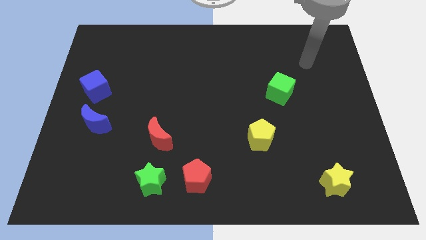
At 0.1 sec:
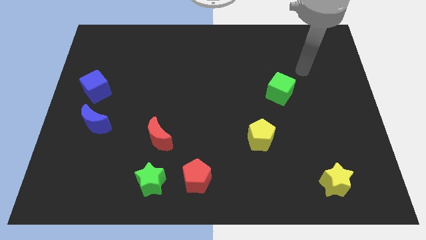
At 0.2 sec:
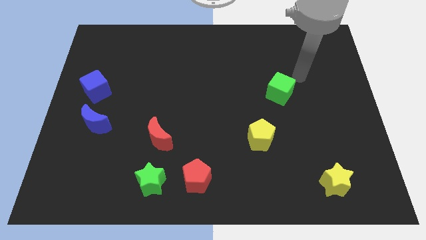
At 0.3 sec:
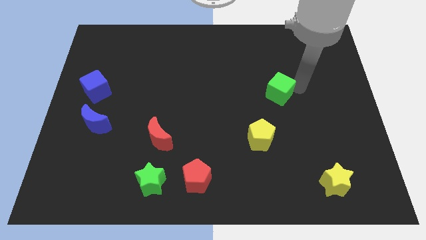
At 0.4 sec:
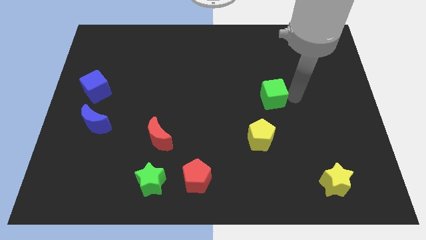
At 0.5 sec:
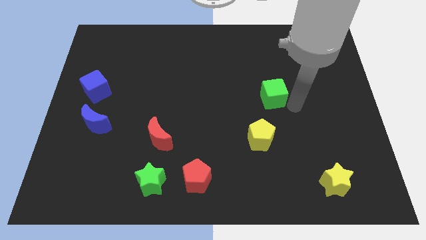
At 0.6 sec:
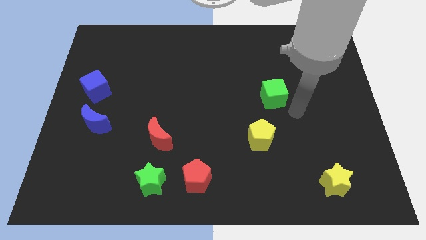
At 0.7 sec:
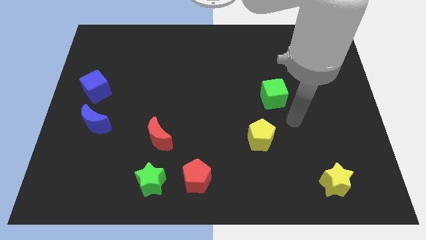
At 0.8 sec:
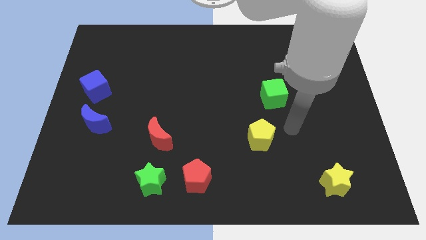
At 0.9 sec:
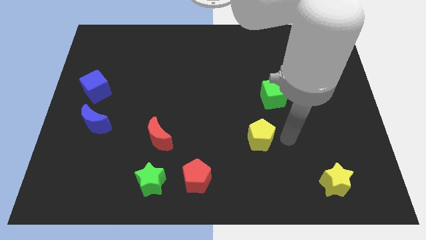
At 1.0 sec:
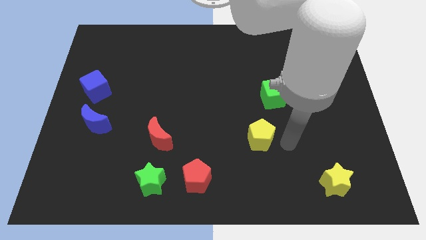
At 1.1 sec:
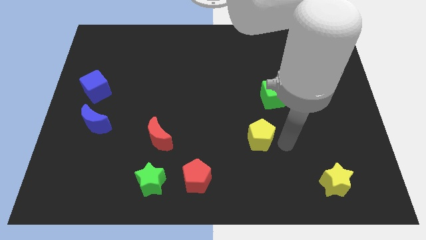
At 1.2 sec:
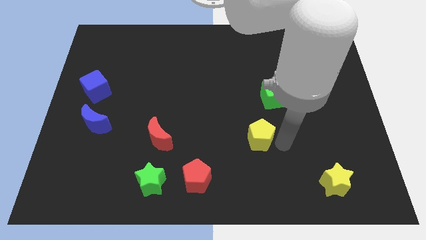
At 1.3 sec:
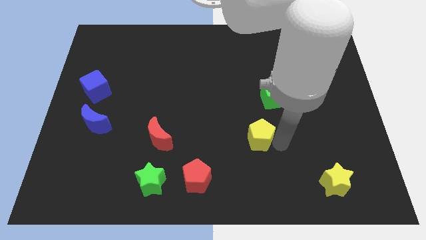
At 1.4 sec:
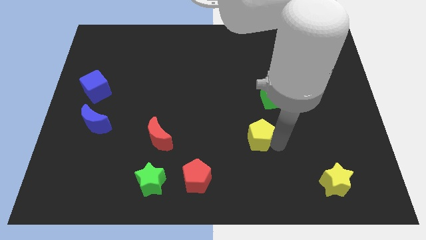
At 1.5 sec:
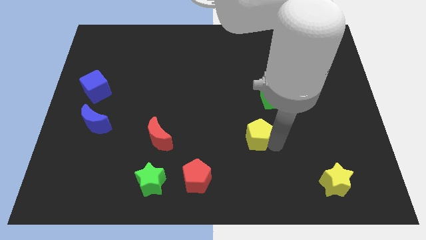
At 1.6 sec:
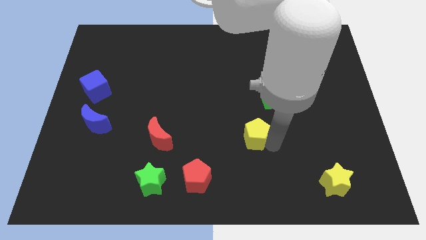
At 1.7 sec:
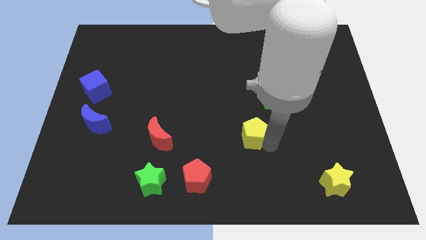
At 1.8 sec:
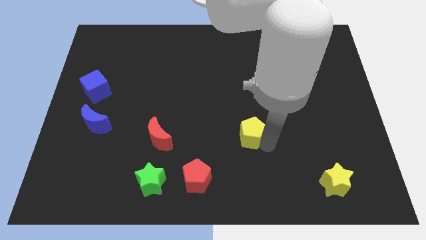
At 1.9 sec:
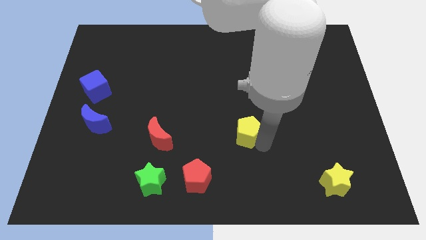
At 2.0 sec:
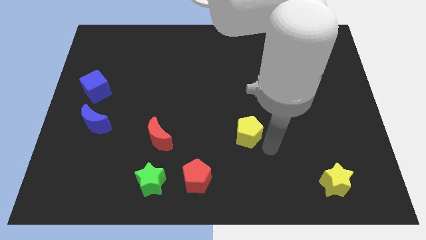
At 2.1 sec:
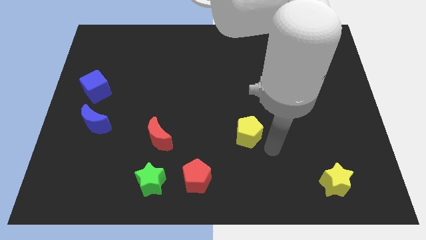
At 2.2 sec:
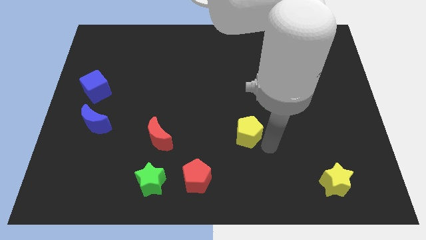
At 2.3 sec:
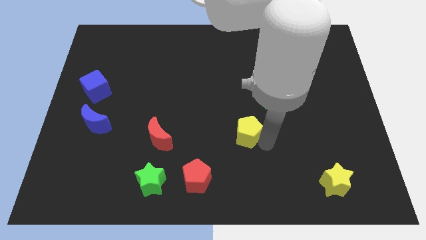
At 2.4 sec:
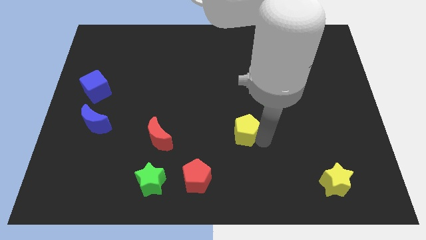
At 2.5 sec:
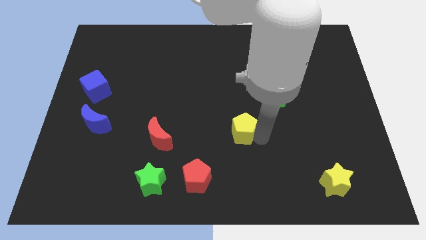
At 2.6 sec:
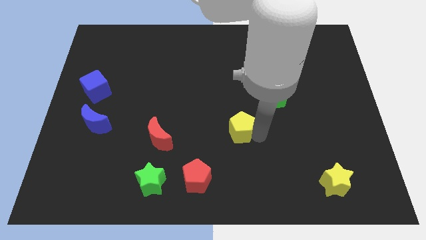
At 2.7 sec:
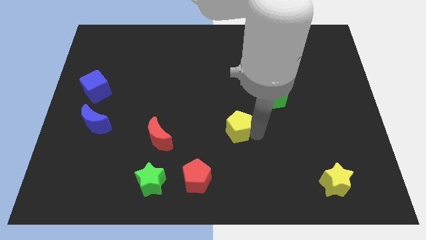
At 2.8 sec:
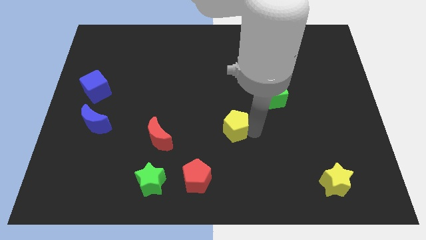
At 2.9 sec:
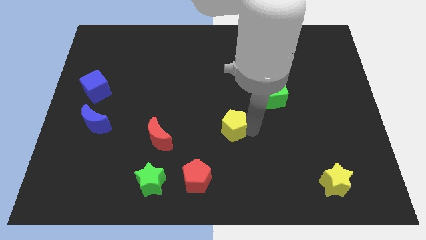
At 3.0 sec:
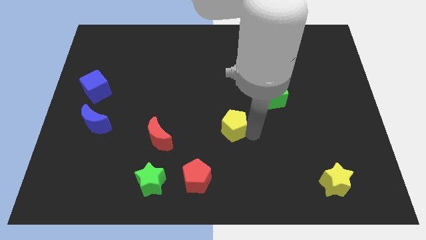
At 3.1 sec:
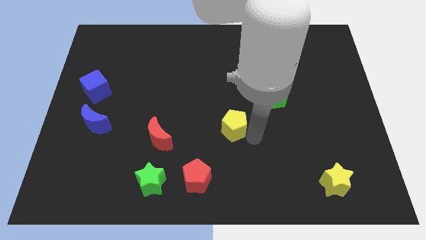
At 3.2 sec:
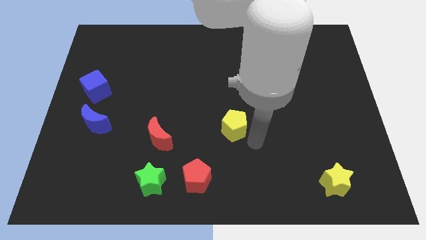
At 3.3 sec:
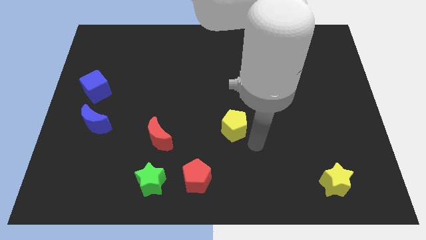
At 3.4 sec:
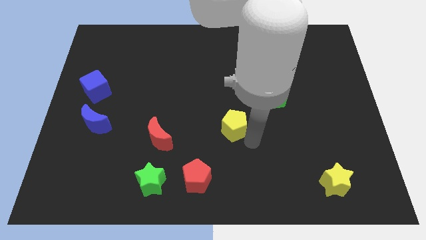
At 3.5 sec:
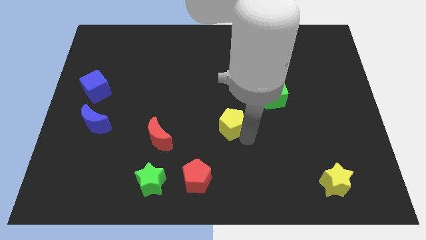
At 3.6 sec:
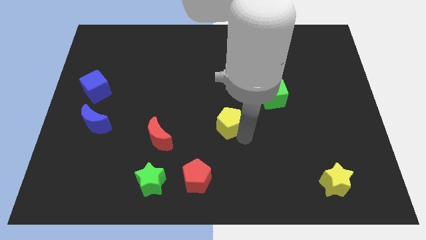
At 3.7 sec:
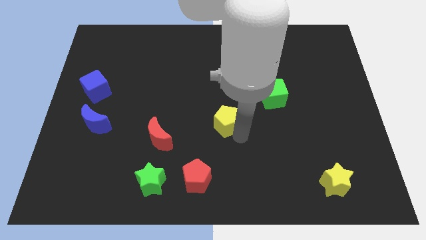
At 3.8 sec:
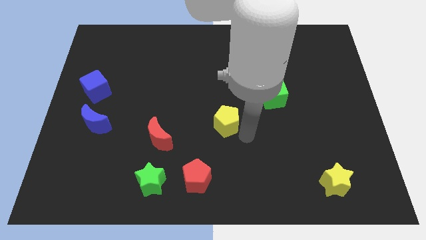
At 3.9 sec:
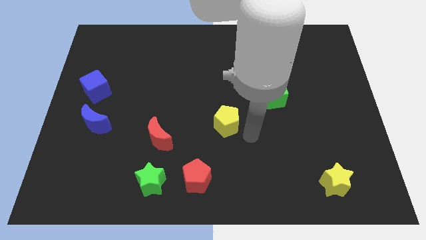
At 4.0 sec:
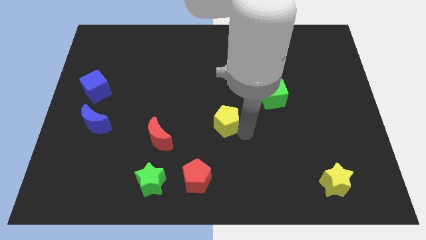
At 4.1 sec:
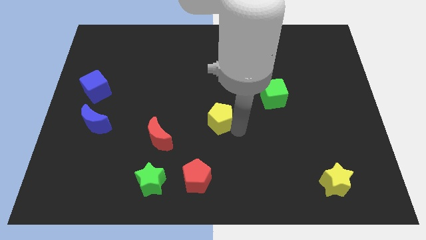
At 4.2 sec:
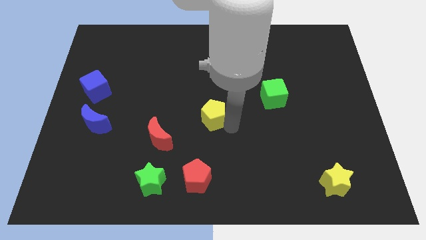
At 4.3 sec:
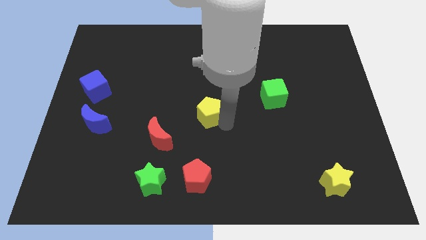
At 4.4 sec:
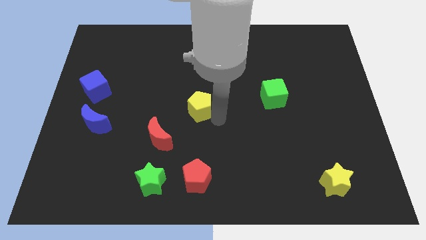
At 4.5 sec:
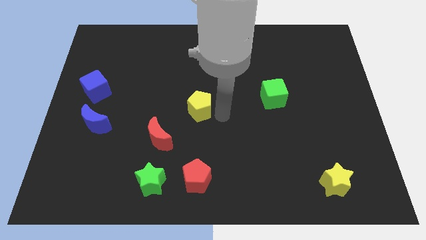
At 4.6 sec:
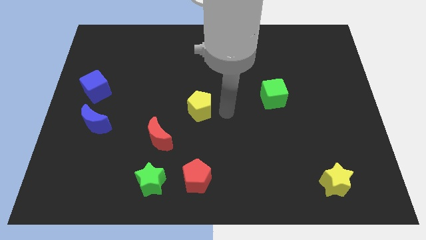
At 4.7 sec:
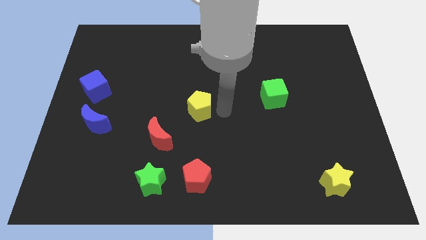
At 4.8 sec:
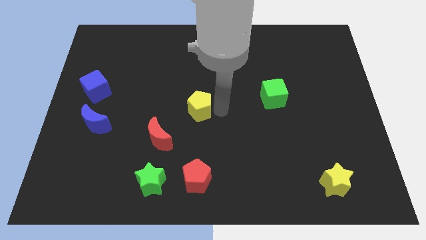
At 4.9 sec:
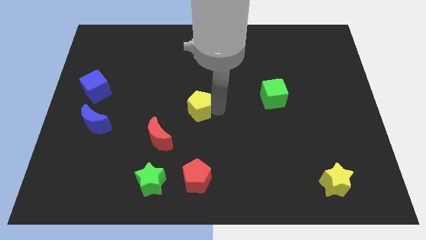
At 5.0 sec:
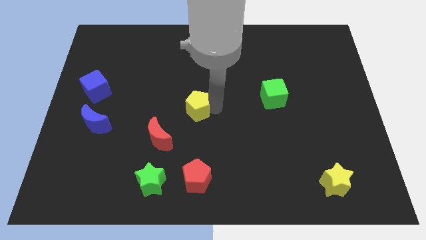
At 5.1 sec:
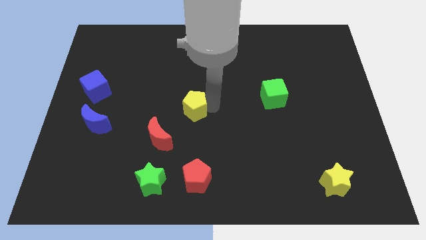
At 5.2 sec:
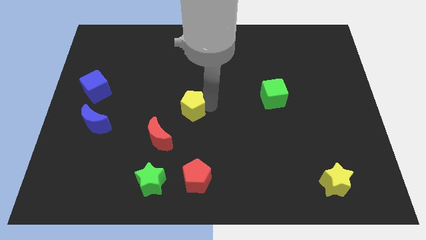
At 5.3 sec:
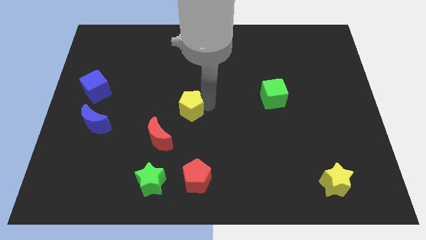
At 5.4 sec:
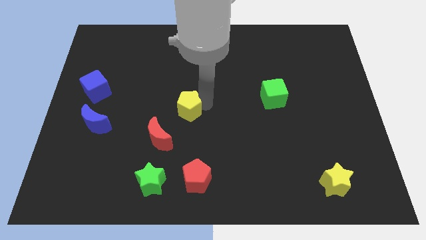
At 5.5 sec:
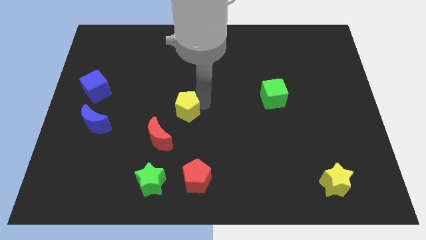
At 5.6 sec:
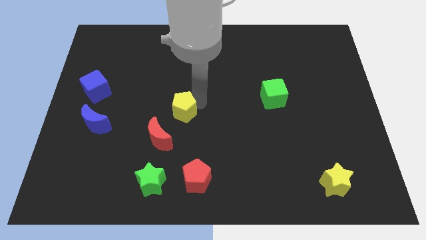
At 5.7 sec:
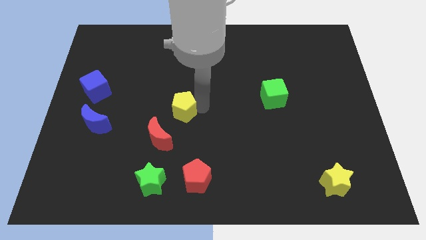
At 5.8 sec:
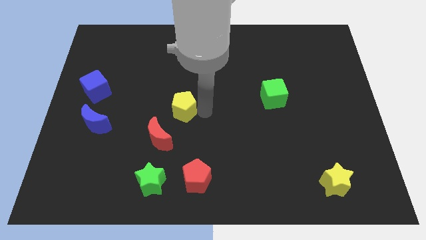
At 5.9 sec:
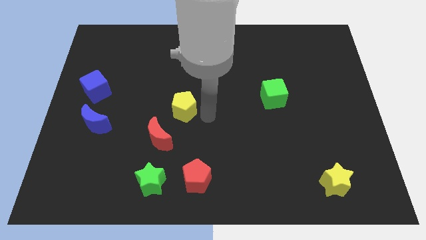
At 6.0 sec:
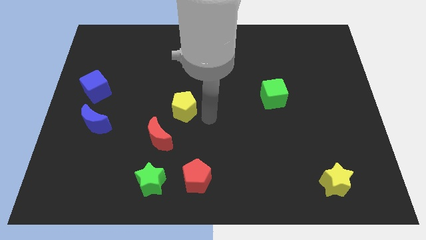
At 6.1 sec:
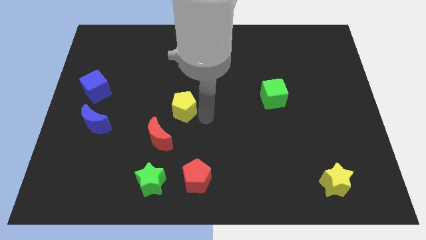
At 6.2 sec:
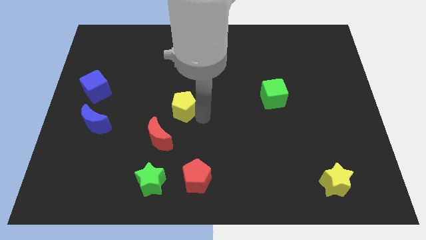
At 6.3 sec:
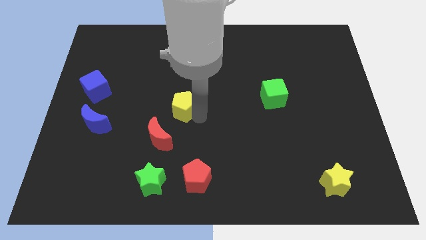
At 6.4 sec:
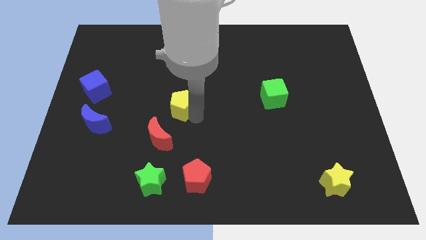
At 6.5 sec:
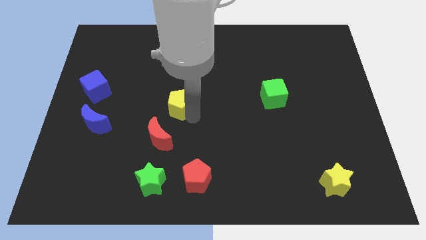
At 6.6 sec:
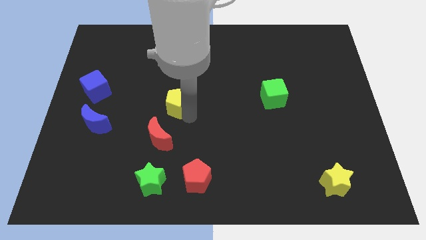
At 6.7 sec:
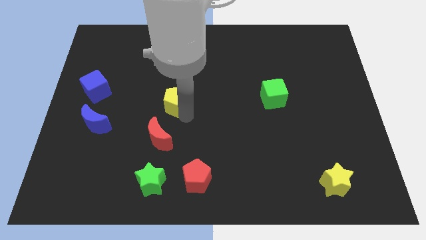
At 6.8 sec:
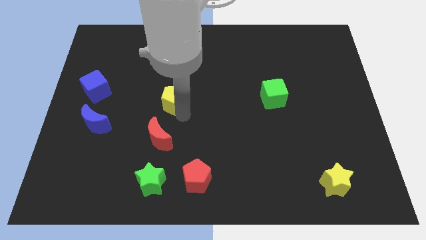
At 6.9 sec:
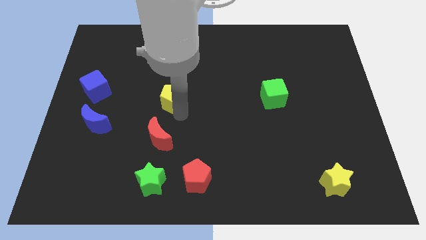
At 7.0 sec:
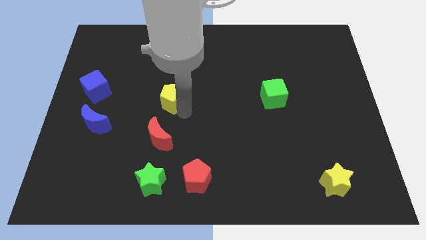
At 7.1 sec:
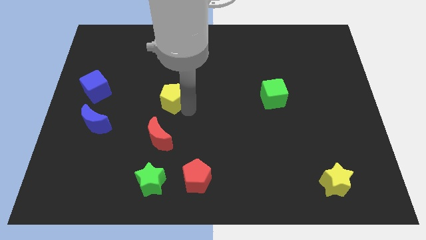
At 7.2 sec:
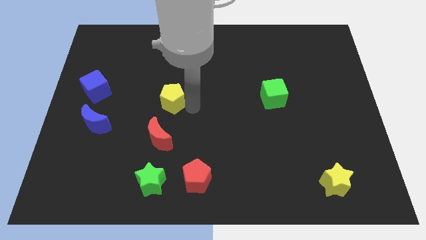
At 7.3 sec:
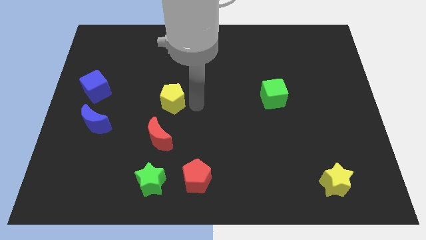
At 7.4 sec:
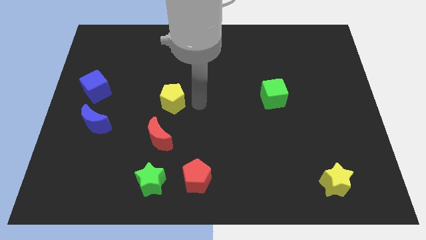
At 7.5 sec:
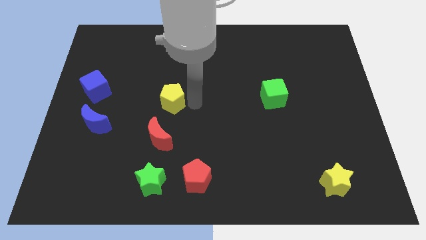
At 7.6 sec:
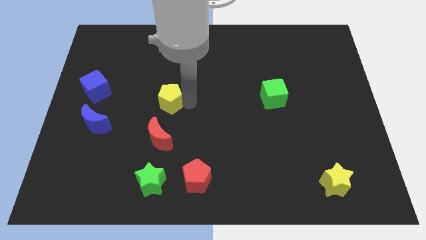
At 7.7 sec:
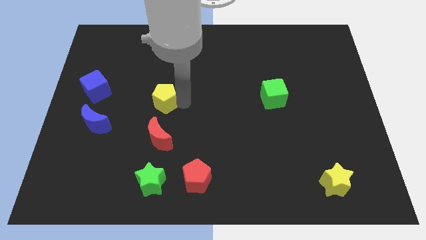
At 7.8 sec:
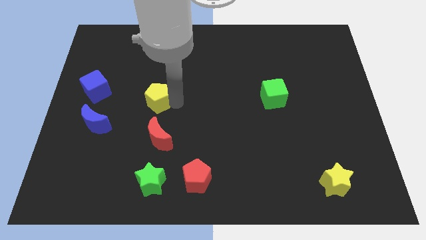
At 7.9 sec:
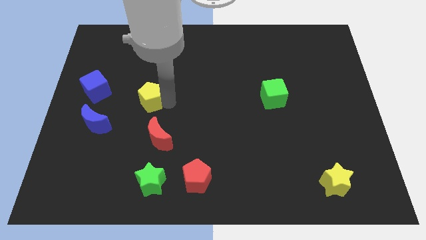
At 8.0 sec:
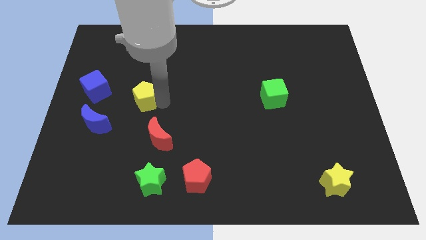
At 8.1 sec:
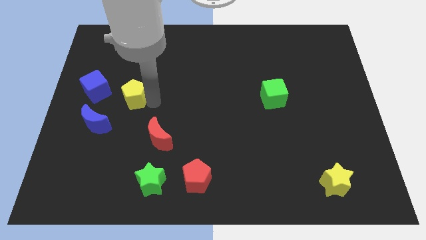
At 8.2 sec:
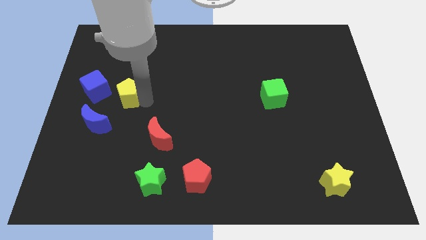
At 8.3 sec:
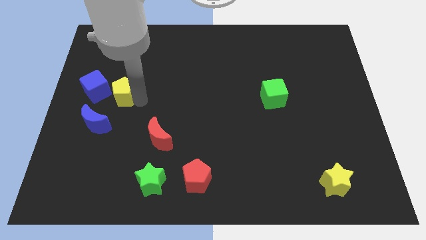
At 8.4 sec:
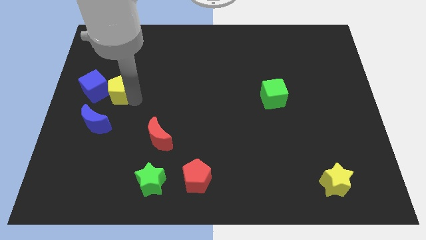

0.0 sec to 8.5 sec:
push the yellow pentagon to the top of the blue moon
